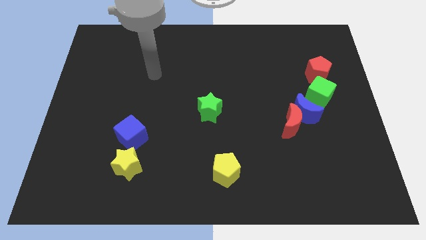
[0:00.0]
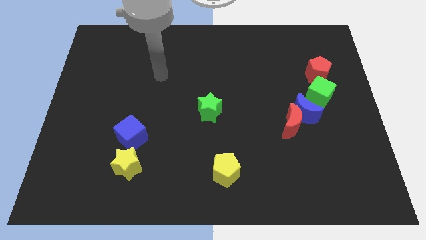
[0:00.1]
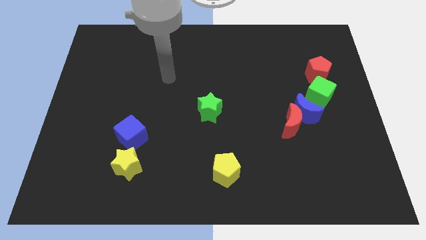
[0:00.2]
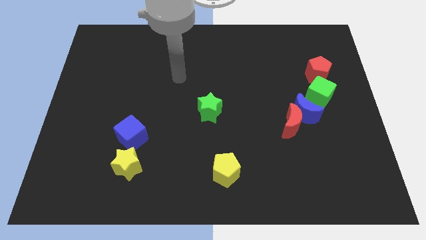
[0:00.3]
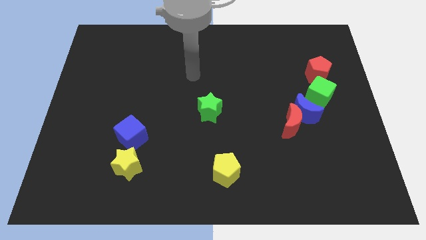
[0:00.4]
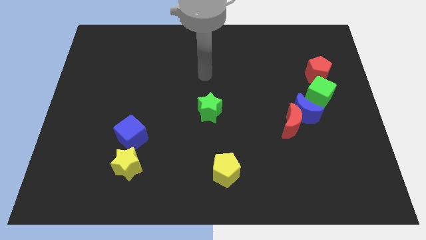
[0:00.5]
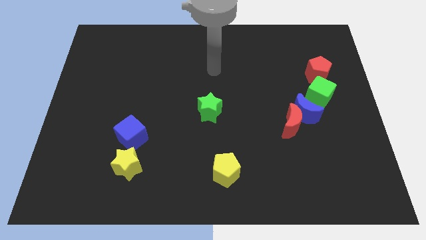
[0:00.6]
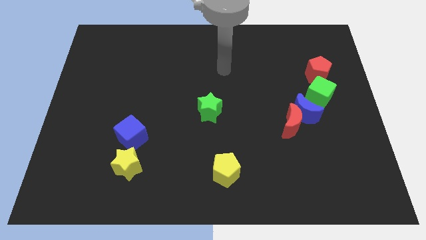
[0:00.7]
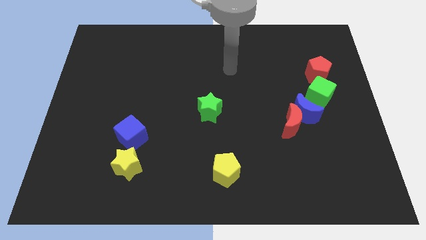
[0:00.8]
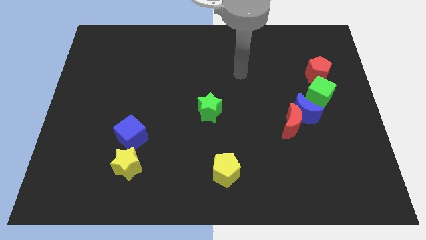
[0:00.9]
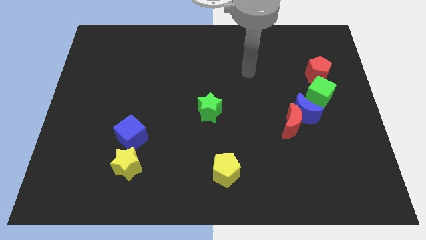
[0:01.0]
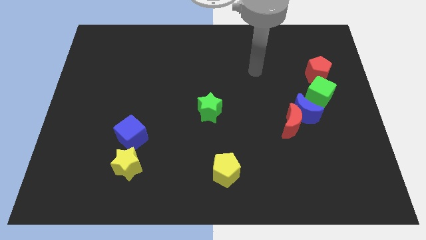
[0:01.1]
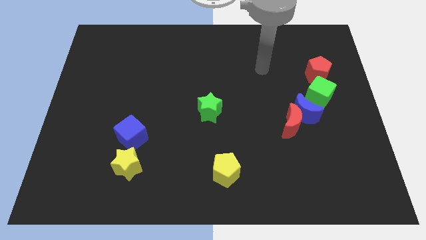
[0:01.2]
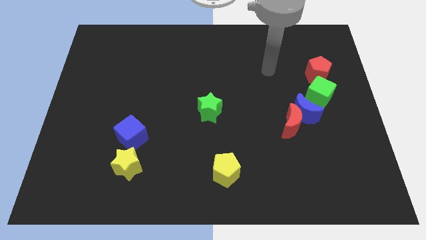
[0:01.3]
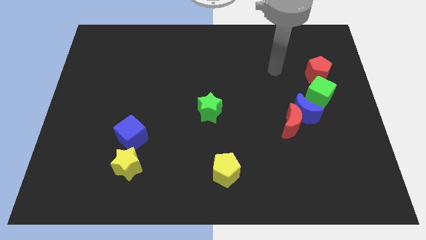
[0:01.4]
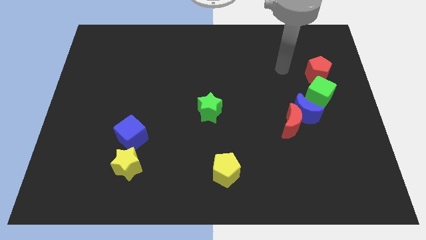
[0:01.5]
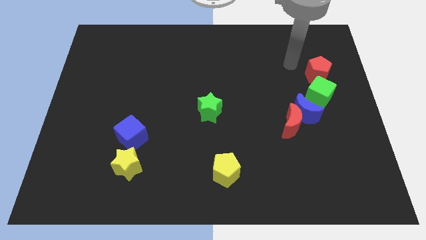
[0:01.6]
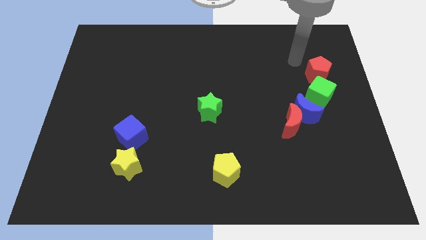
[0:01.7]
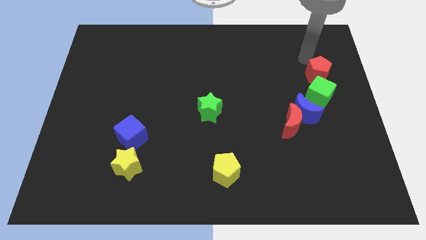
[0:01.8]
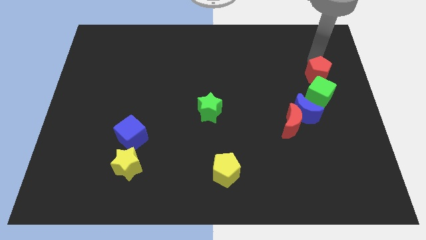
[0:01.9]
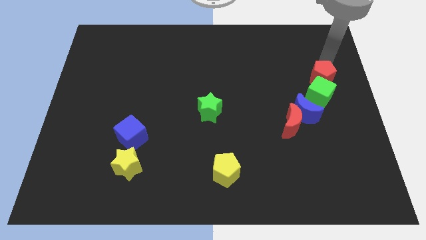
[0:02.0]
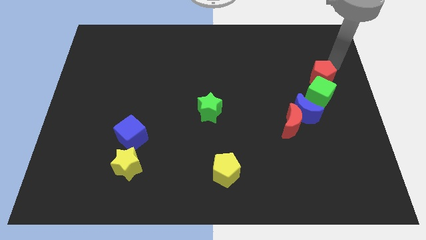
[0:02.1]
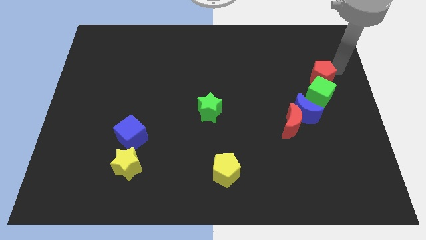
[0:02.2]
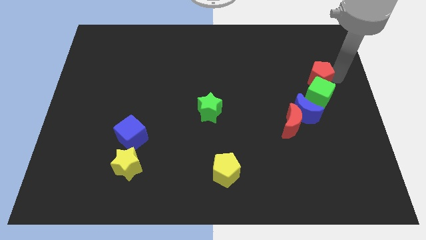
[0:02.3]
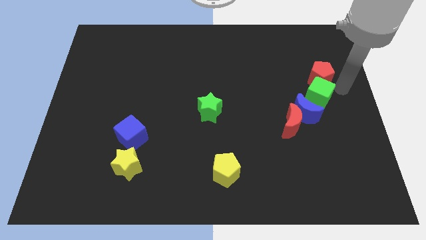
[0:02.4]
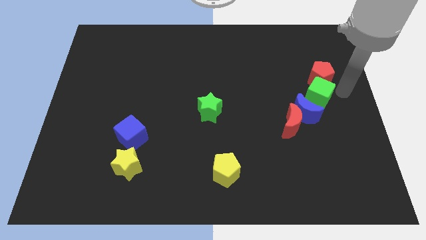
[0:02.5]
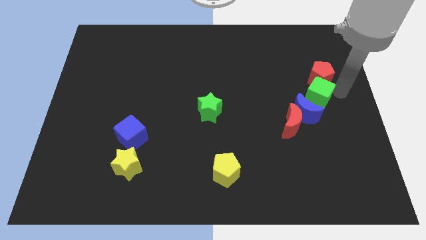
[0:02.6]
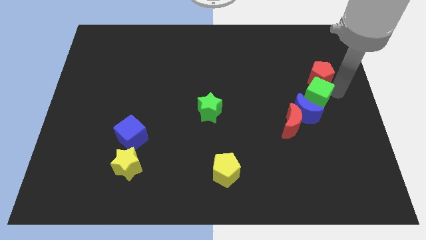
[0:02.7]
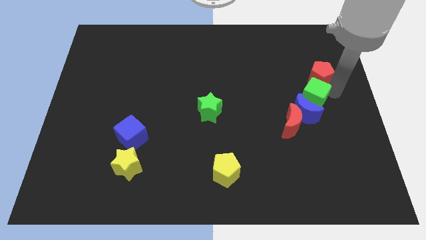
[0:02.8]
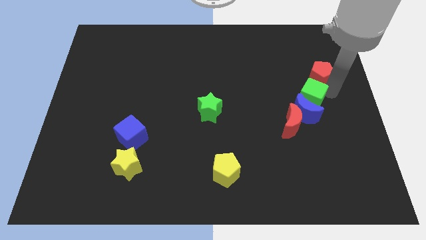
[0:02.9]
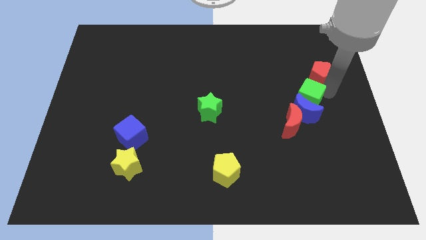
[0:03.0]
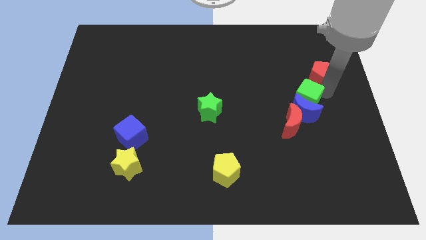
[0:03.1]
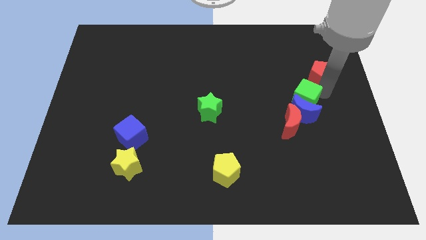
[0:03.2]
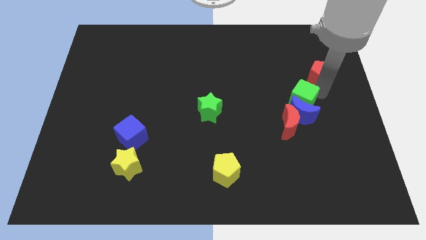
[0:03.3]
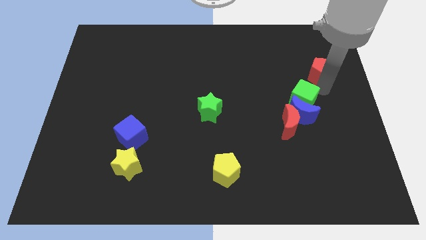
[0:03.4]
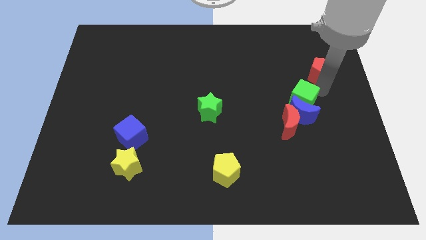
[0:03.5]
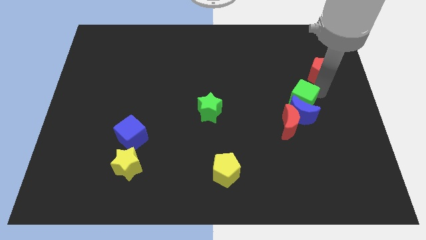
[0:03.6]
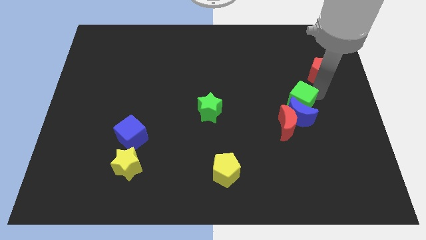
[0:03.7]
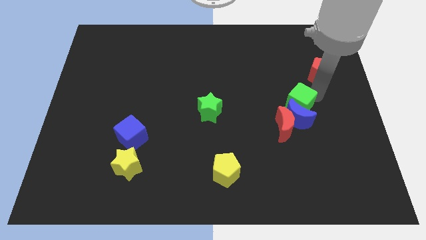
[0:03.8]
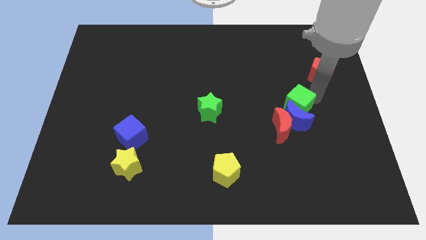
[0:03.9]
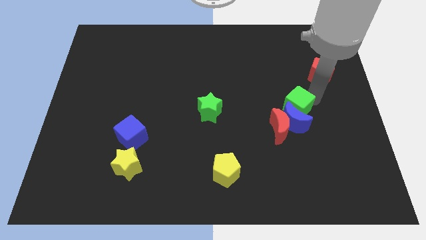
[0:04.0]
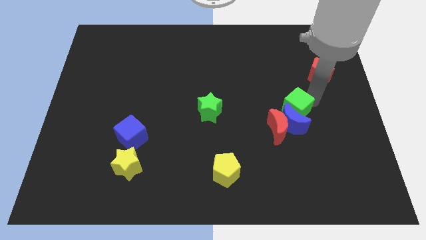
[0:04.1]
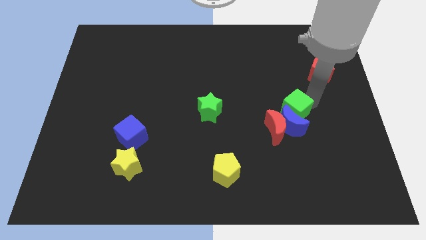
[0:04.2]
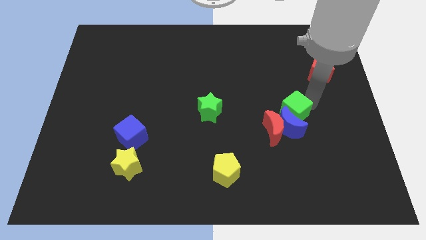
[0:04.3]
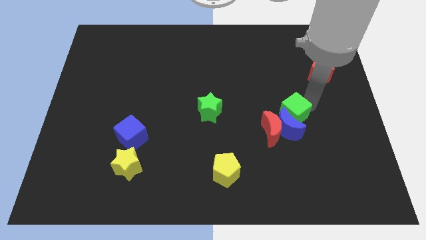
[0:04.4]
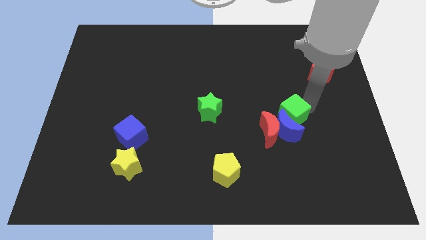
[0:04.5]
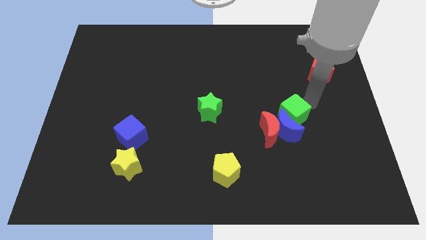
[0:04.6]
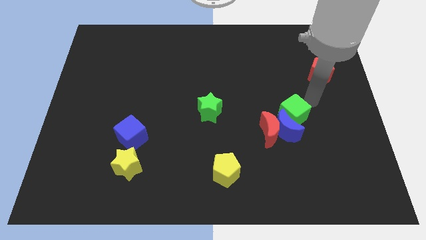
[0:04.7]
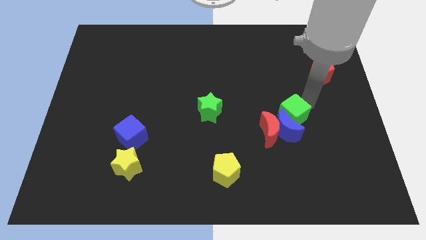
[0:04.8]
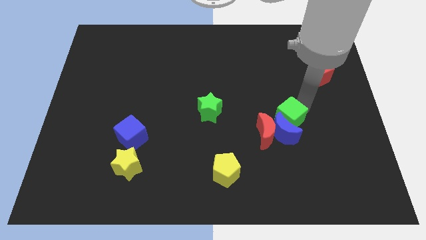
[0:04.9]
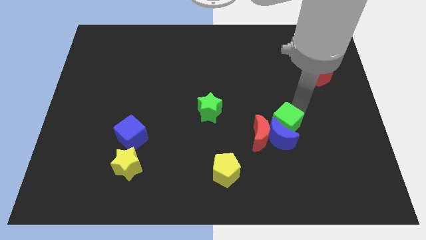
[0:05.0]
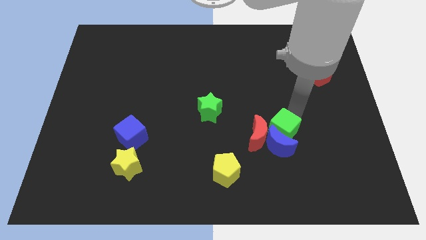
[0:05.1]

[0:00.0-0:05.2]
put the green cube close to the red moon

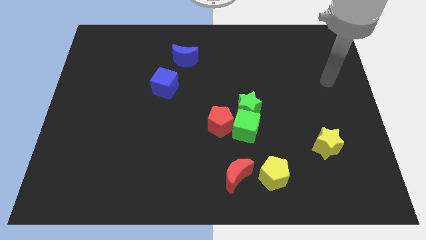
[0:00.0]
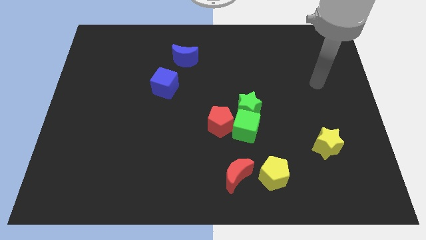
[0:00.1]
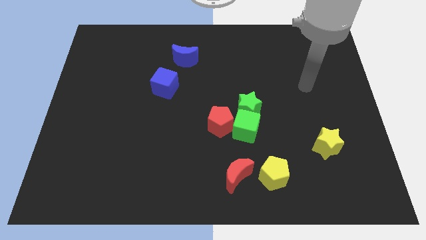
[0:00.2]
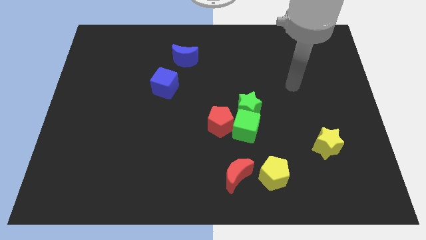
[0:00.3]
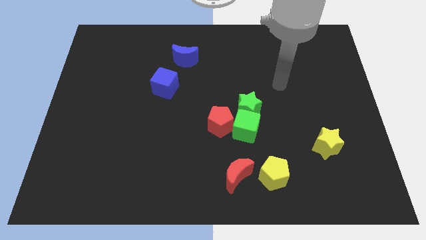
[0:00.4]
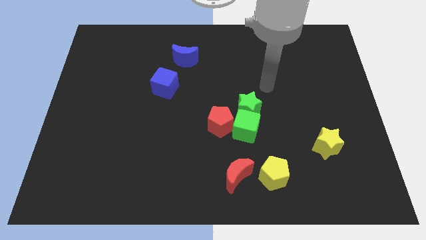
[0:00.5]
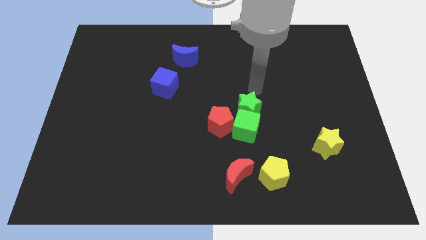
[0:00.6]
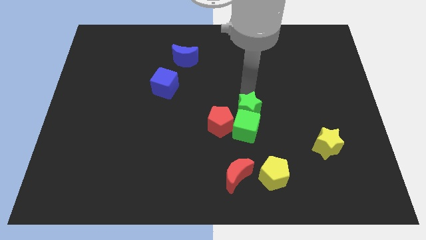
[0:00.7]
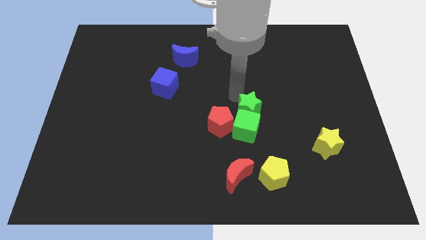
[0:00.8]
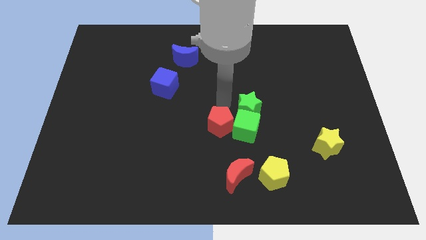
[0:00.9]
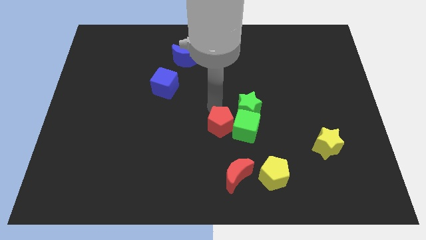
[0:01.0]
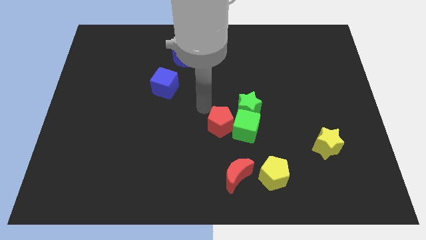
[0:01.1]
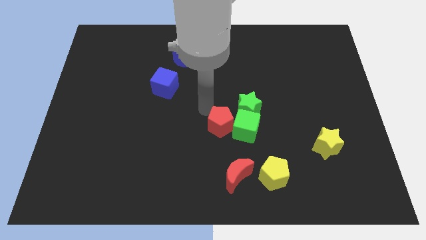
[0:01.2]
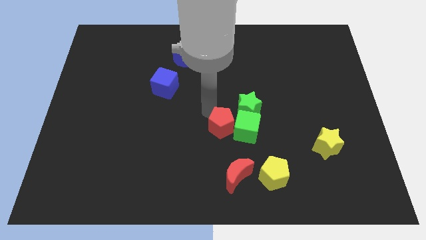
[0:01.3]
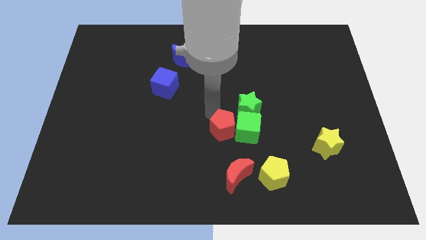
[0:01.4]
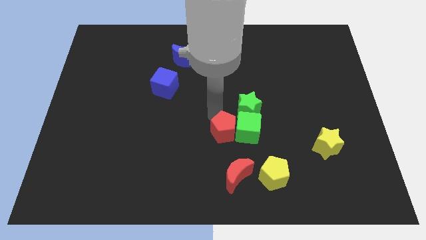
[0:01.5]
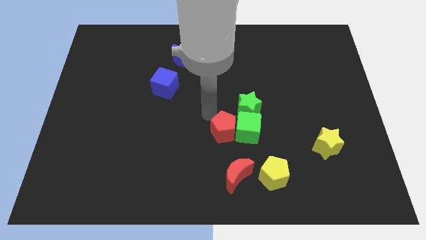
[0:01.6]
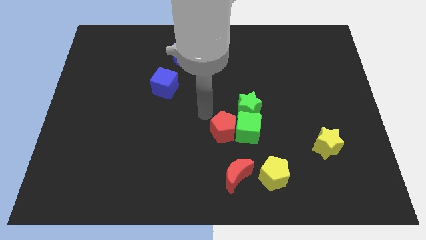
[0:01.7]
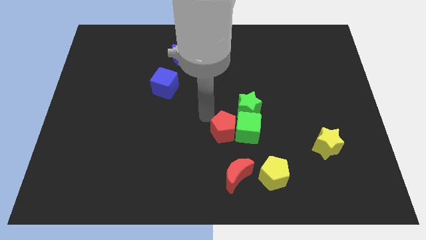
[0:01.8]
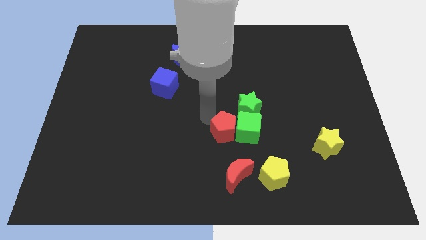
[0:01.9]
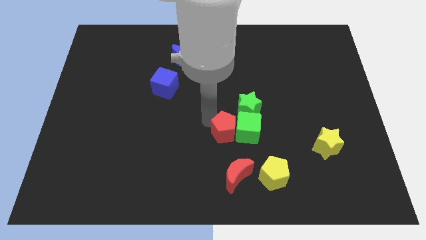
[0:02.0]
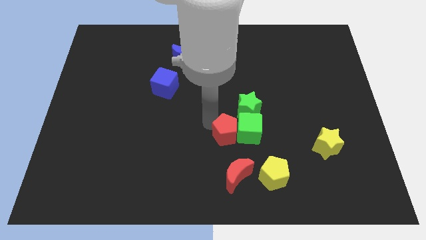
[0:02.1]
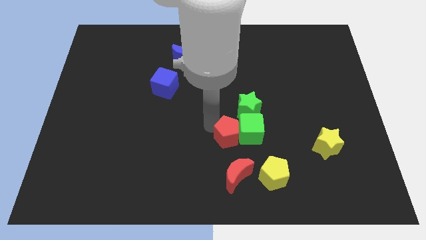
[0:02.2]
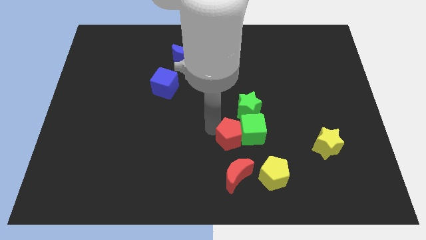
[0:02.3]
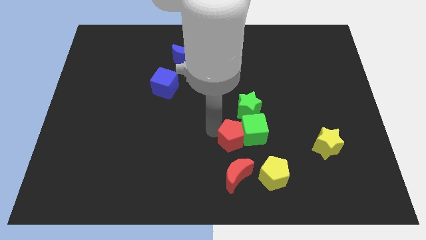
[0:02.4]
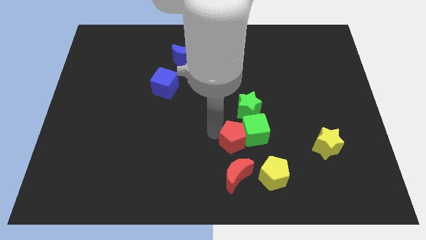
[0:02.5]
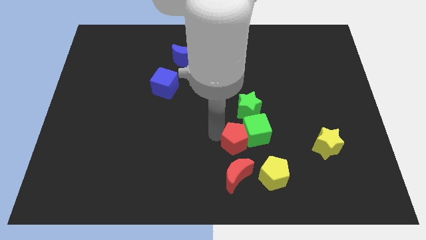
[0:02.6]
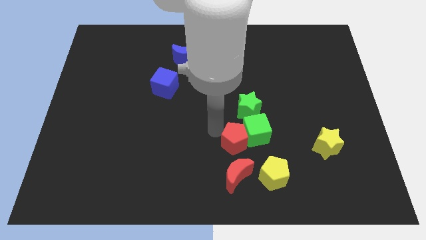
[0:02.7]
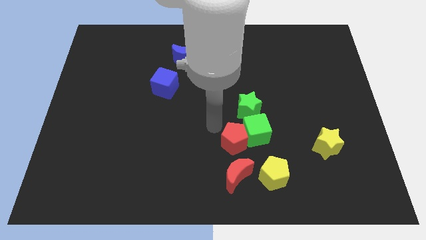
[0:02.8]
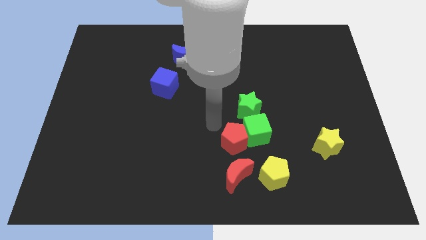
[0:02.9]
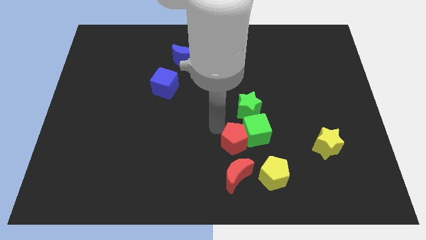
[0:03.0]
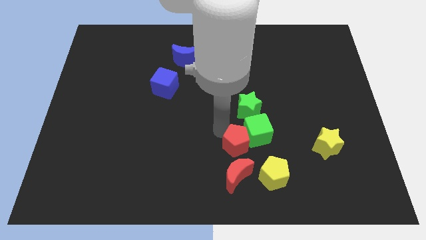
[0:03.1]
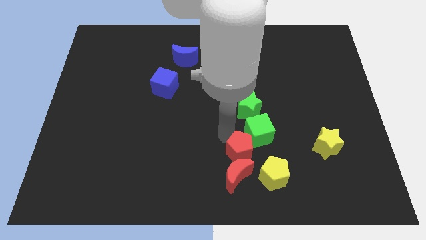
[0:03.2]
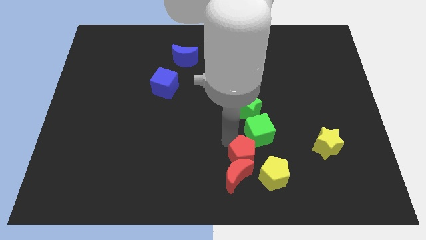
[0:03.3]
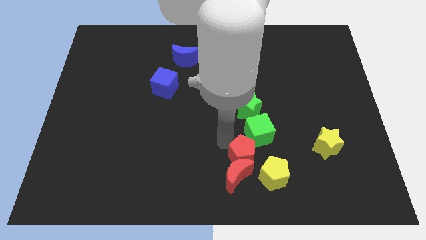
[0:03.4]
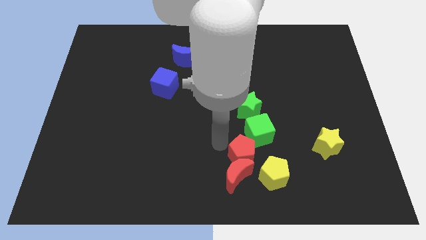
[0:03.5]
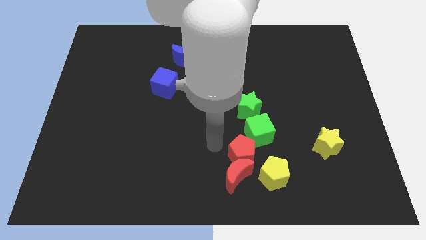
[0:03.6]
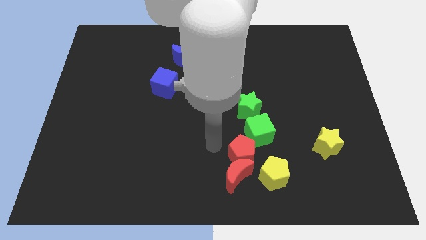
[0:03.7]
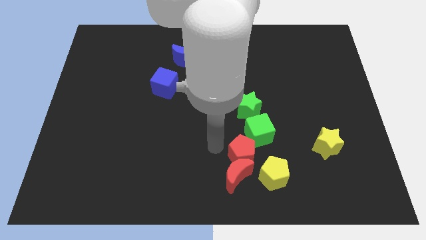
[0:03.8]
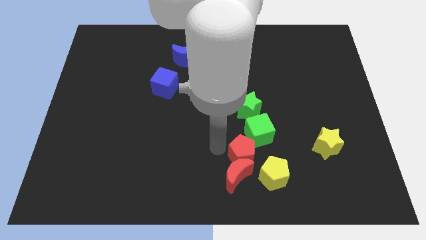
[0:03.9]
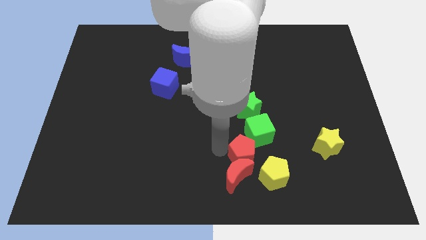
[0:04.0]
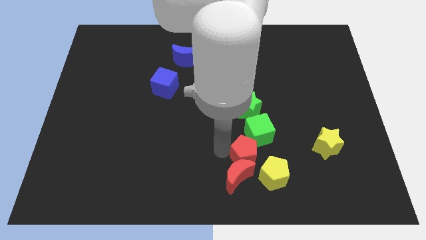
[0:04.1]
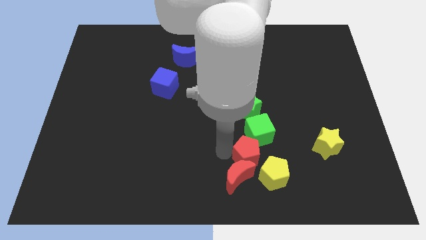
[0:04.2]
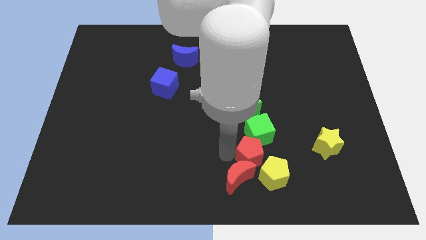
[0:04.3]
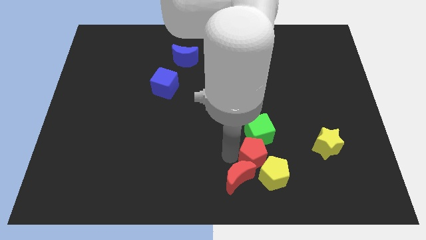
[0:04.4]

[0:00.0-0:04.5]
put the red pentagon close to the yellow pentagon
